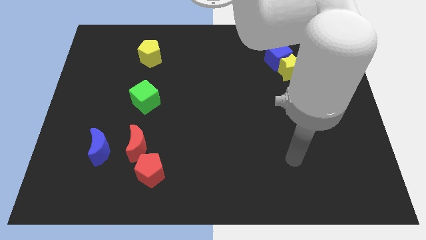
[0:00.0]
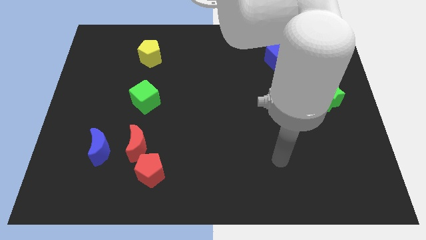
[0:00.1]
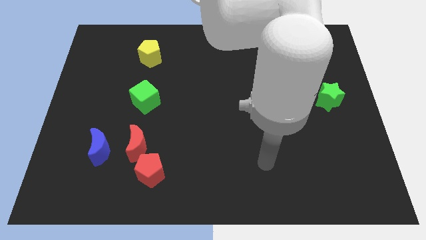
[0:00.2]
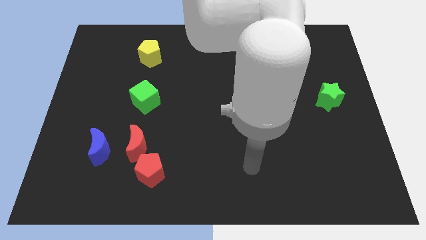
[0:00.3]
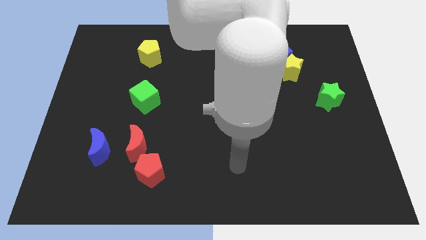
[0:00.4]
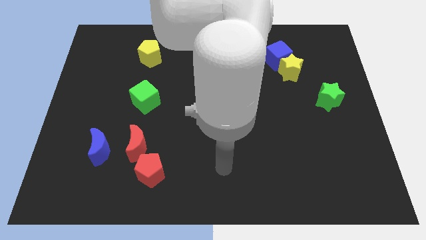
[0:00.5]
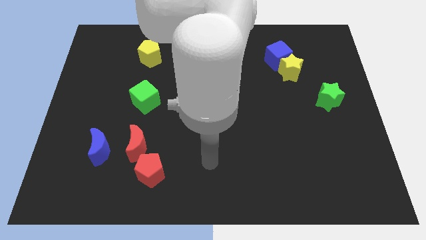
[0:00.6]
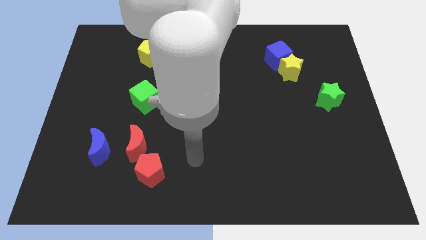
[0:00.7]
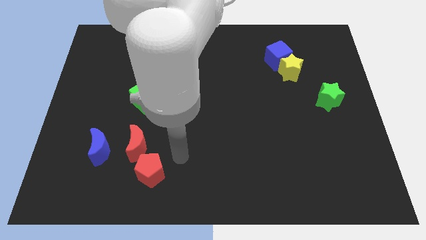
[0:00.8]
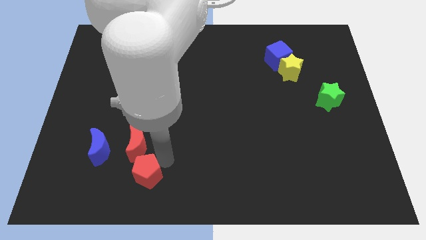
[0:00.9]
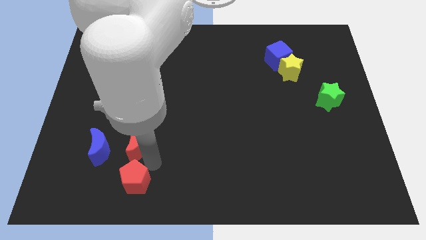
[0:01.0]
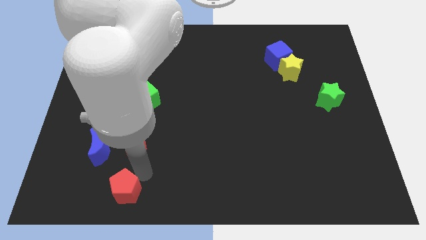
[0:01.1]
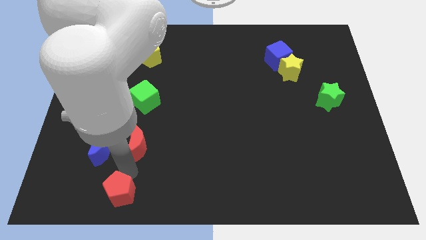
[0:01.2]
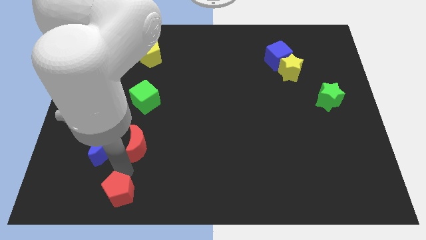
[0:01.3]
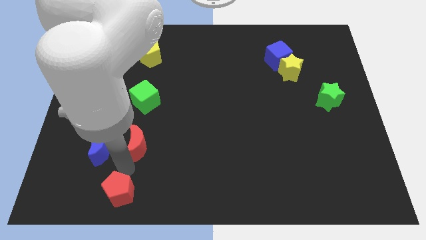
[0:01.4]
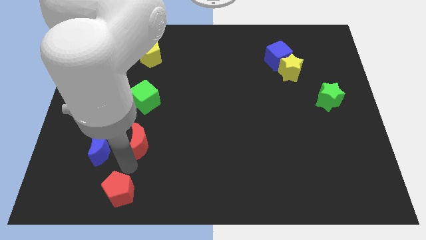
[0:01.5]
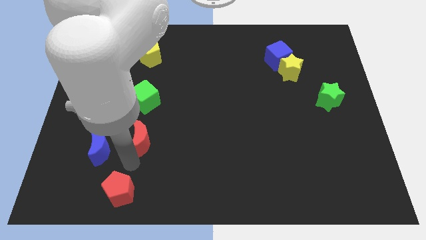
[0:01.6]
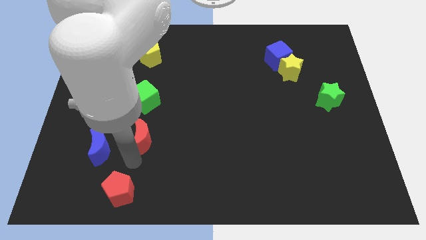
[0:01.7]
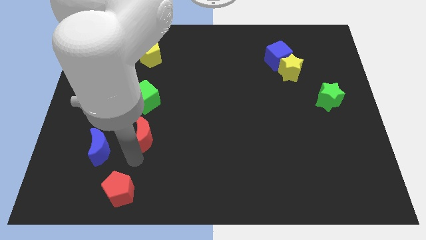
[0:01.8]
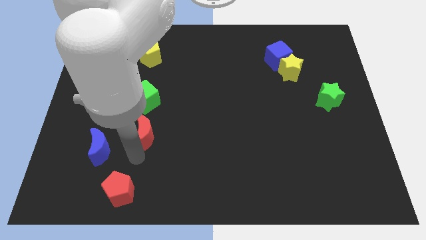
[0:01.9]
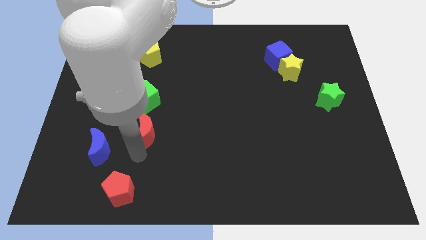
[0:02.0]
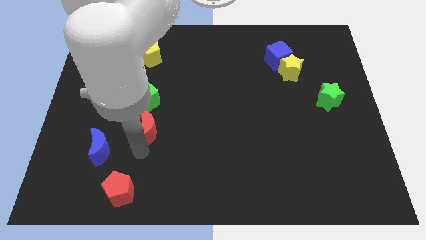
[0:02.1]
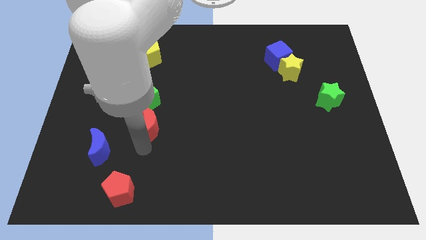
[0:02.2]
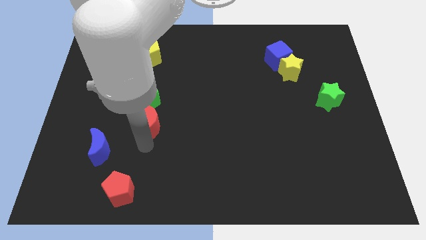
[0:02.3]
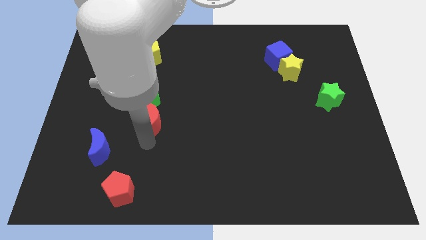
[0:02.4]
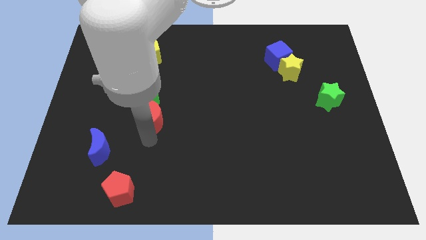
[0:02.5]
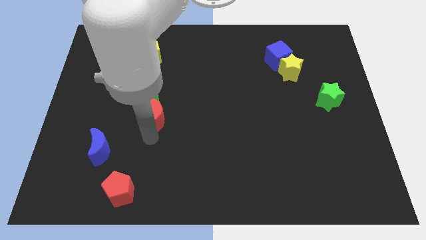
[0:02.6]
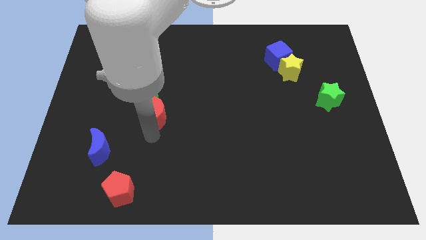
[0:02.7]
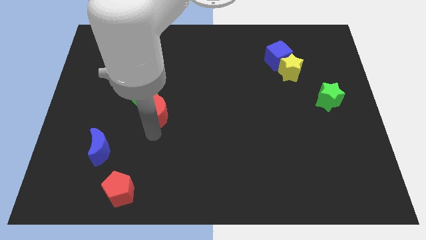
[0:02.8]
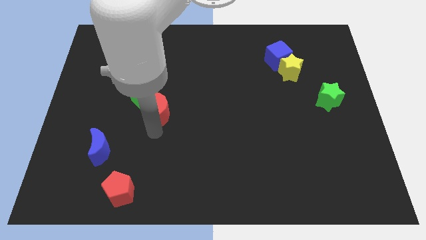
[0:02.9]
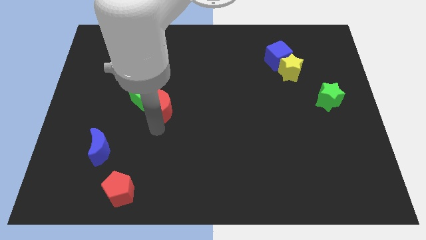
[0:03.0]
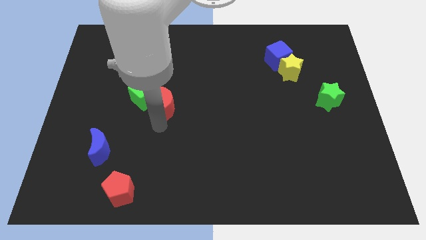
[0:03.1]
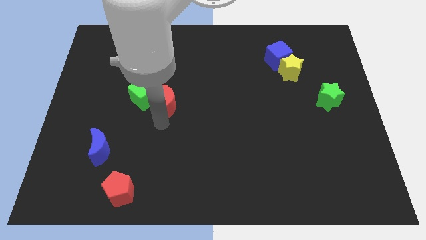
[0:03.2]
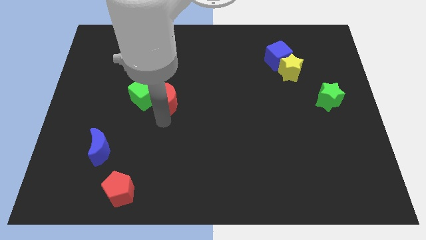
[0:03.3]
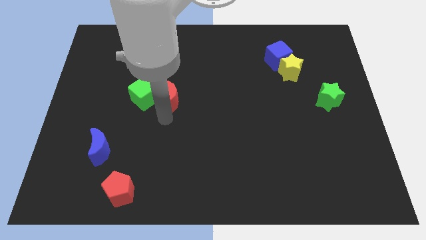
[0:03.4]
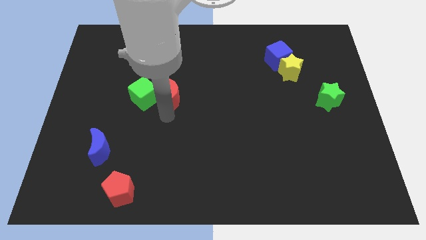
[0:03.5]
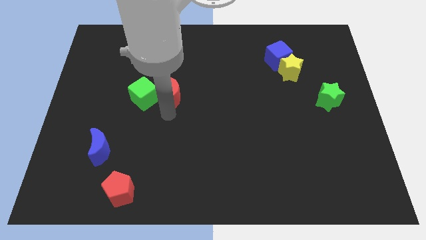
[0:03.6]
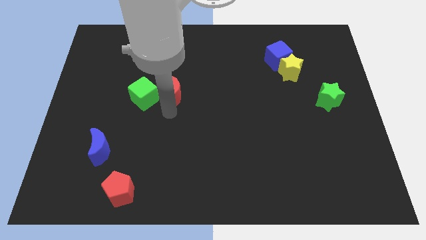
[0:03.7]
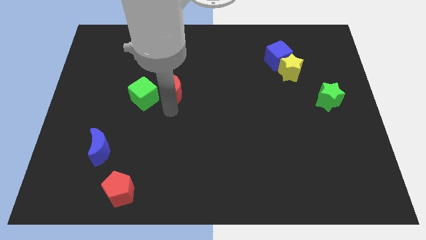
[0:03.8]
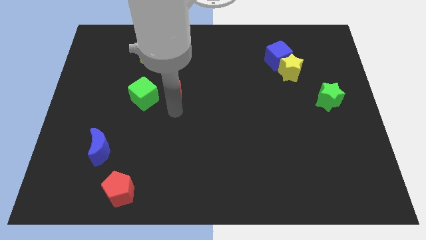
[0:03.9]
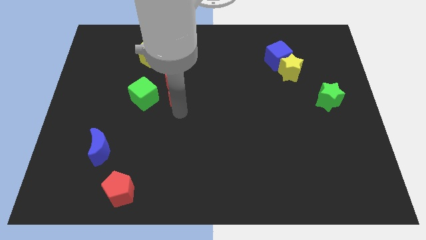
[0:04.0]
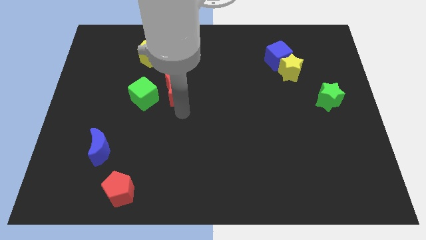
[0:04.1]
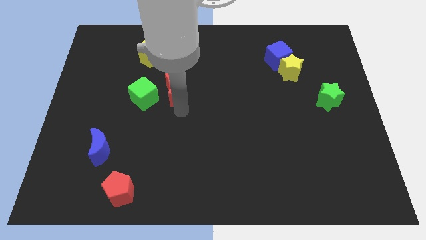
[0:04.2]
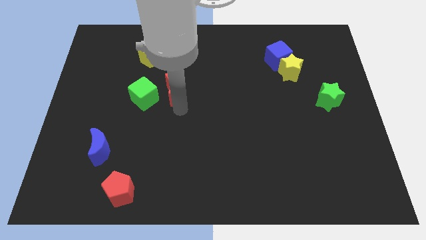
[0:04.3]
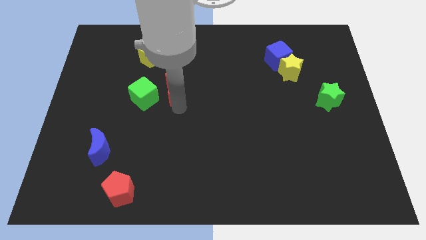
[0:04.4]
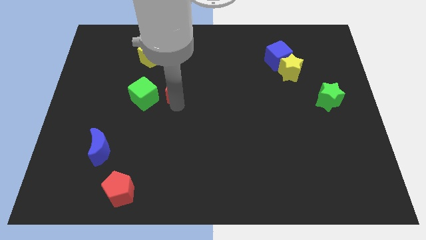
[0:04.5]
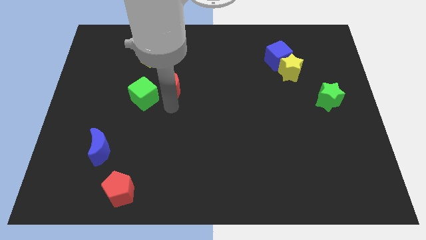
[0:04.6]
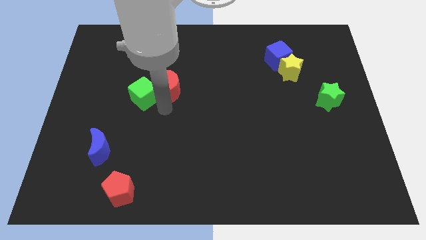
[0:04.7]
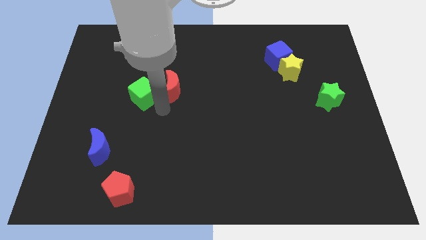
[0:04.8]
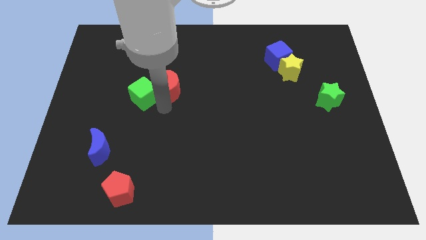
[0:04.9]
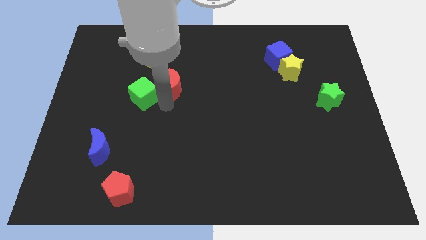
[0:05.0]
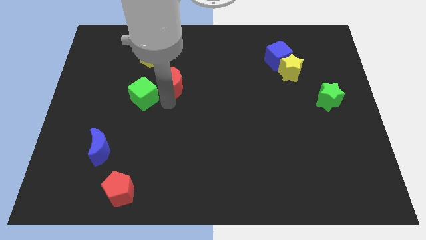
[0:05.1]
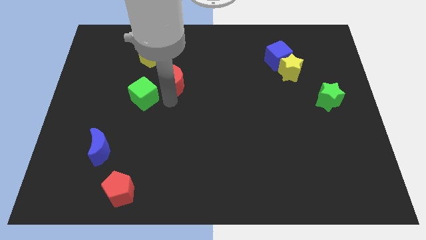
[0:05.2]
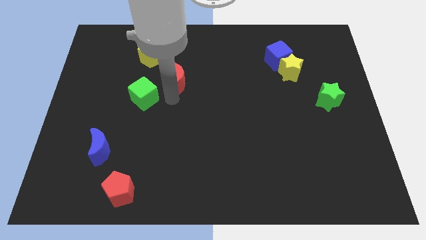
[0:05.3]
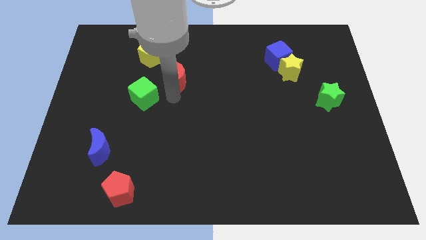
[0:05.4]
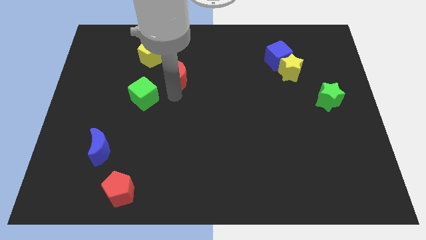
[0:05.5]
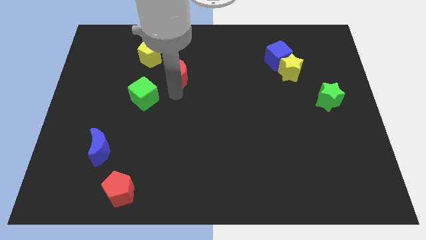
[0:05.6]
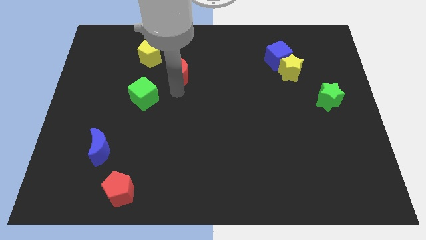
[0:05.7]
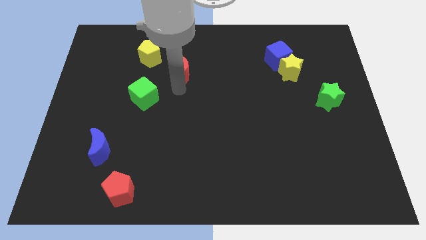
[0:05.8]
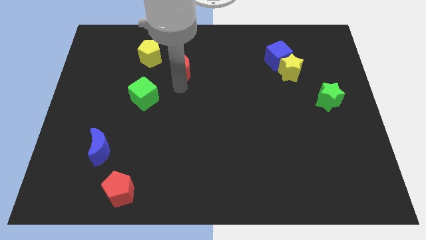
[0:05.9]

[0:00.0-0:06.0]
put the red moon right of the yellow pentagon

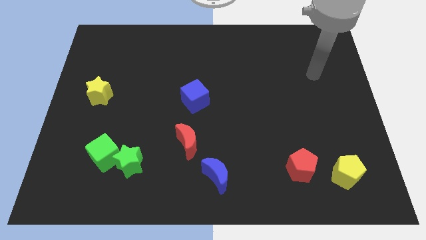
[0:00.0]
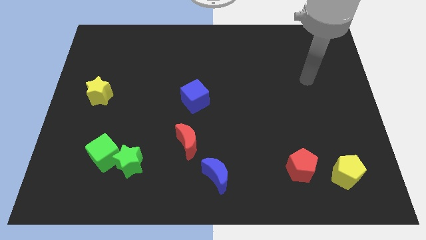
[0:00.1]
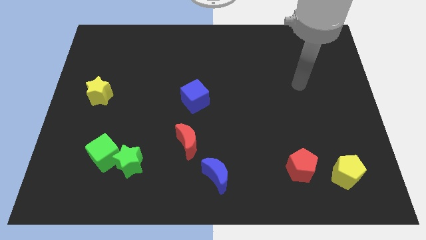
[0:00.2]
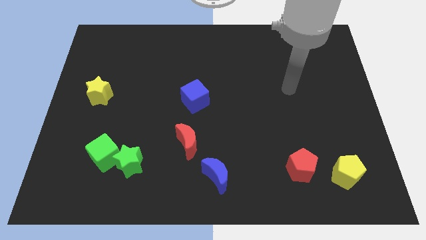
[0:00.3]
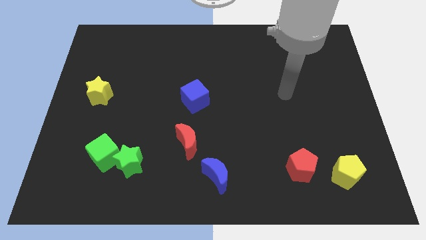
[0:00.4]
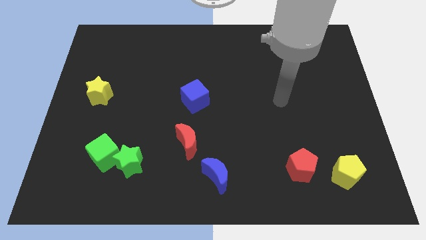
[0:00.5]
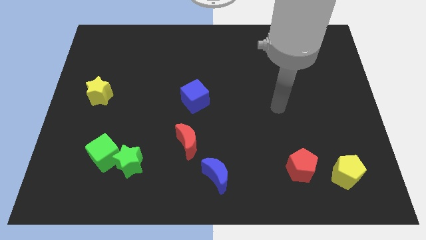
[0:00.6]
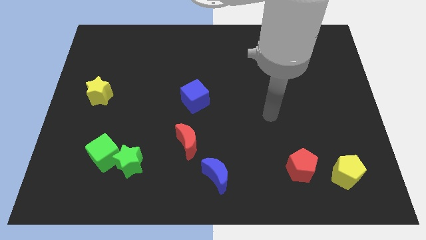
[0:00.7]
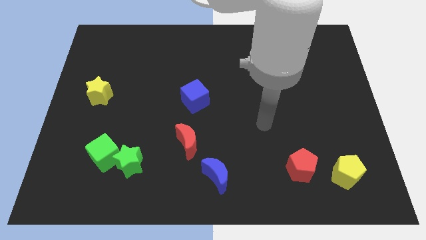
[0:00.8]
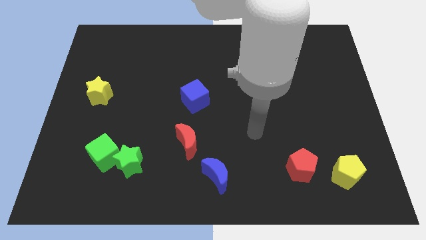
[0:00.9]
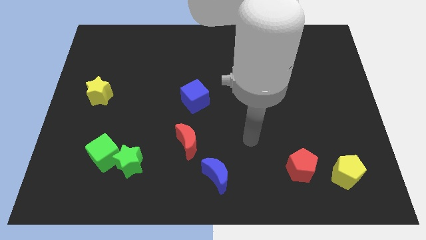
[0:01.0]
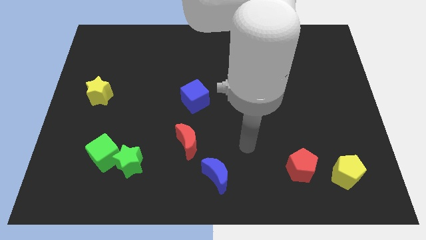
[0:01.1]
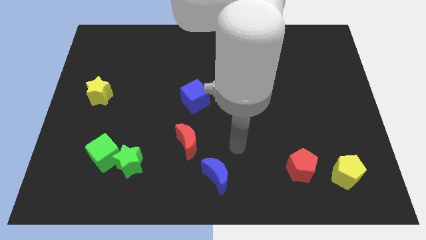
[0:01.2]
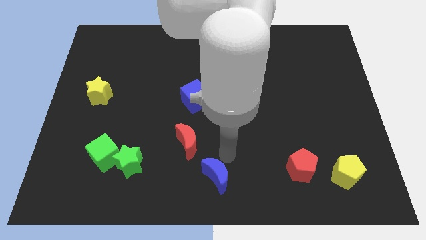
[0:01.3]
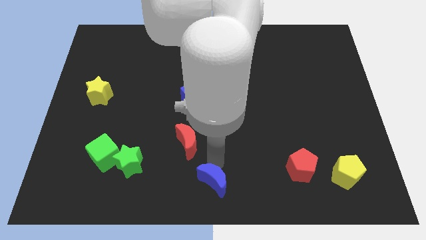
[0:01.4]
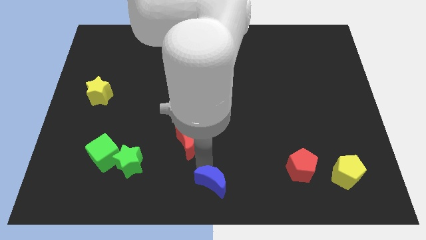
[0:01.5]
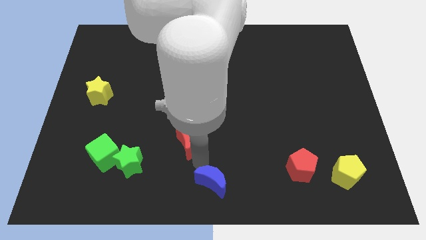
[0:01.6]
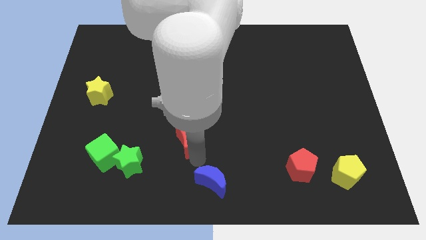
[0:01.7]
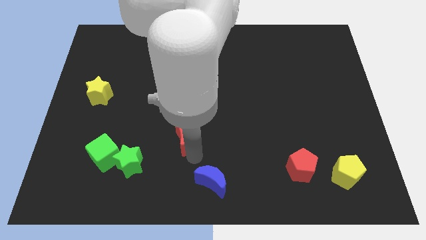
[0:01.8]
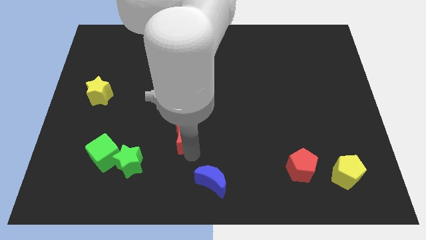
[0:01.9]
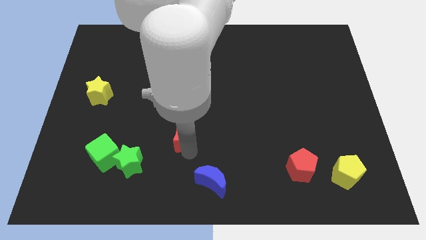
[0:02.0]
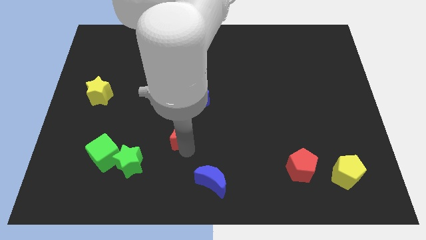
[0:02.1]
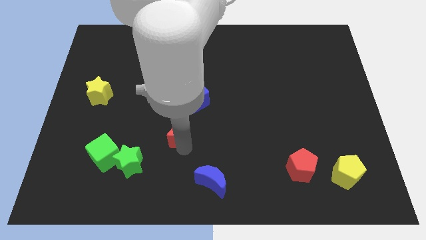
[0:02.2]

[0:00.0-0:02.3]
move the red moon to the bottom left of the blue cube
